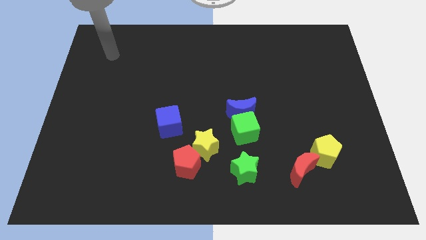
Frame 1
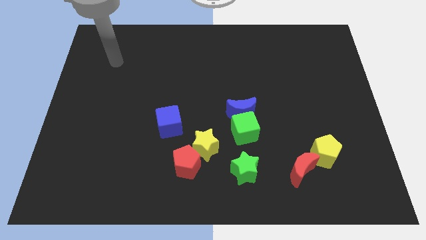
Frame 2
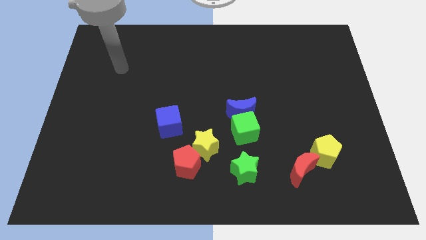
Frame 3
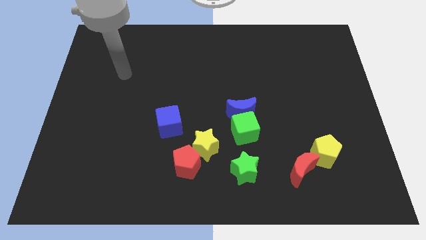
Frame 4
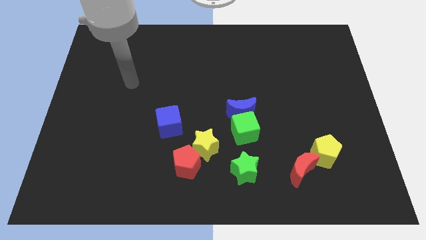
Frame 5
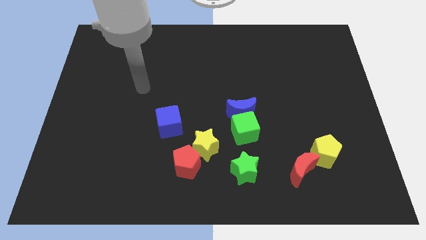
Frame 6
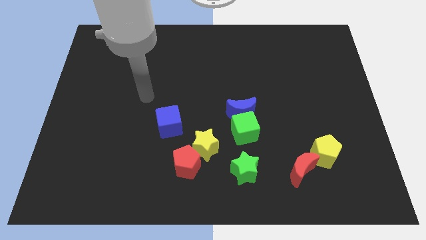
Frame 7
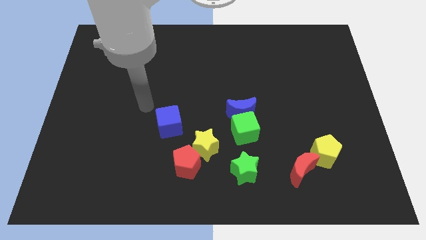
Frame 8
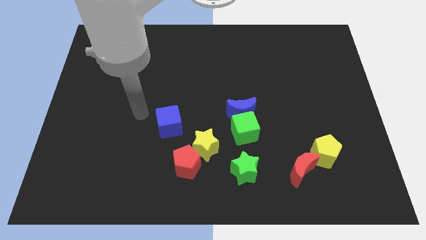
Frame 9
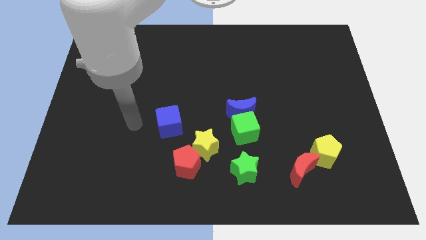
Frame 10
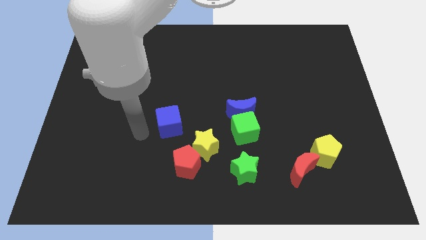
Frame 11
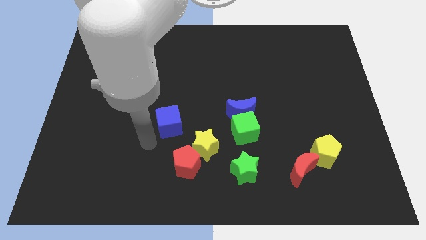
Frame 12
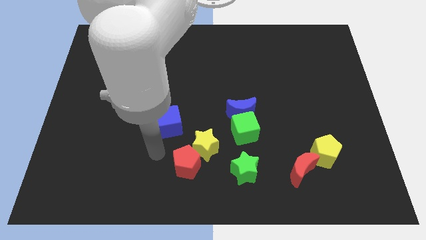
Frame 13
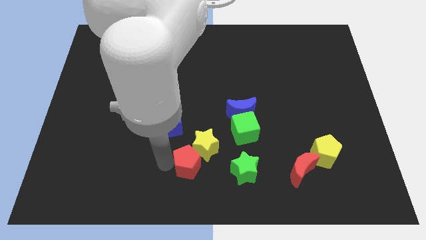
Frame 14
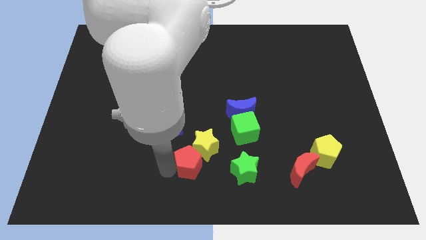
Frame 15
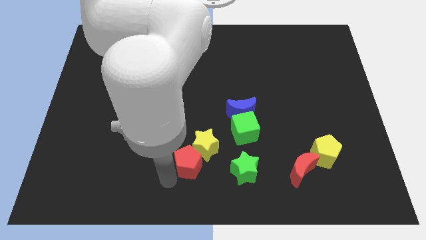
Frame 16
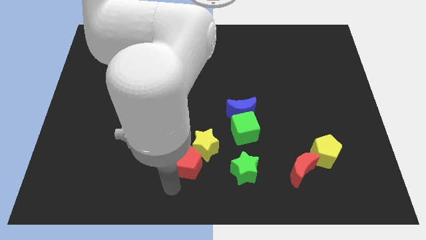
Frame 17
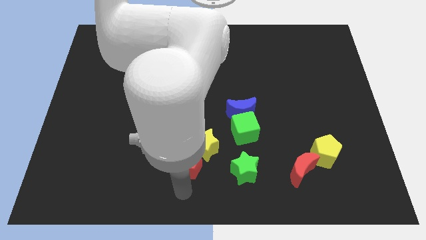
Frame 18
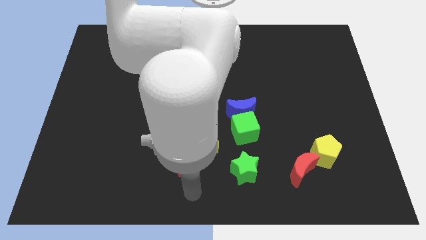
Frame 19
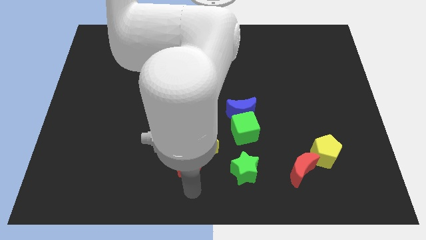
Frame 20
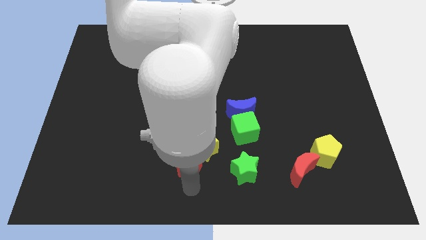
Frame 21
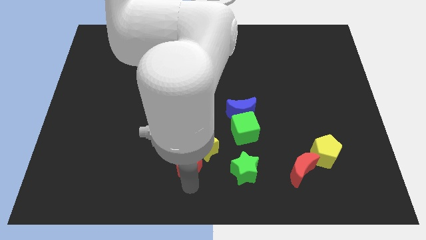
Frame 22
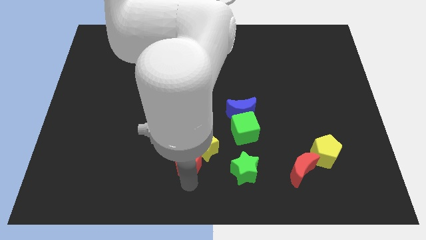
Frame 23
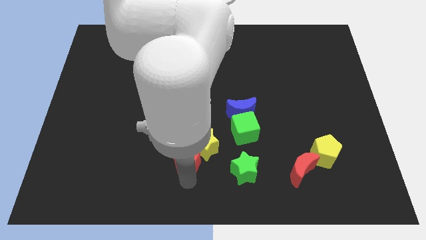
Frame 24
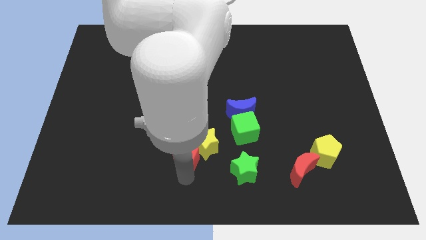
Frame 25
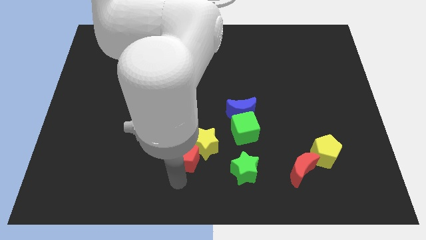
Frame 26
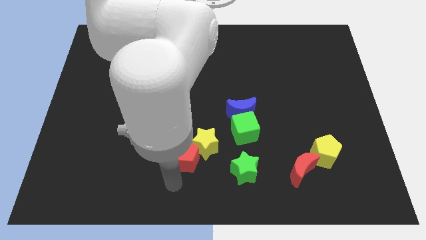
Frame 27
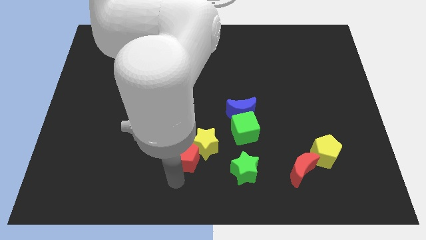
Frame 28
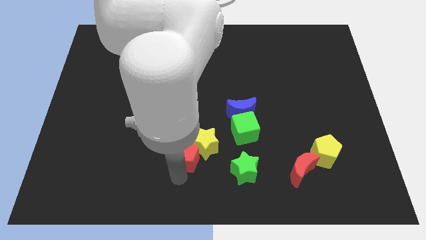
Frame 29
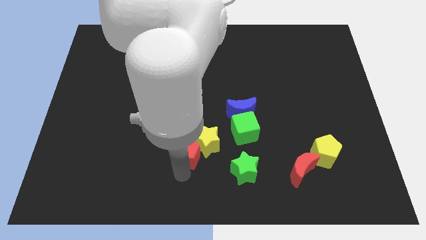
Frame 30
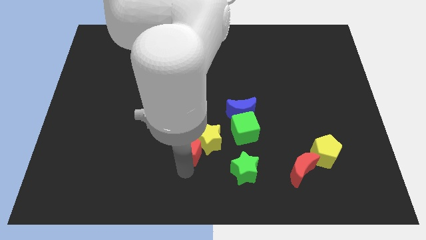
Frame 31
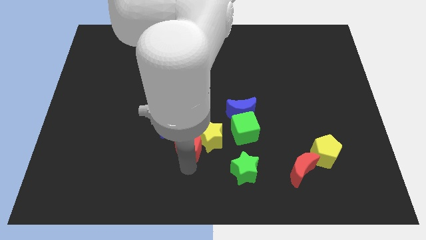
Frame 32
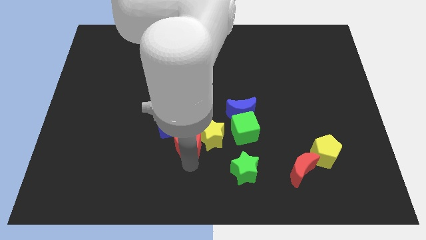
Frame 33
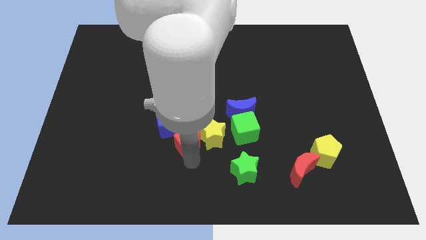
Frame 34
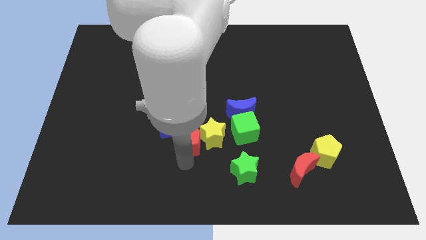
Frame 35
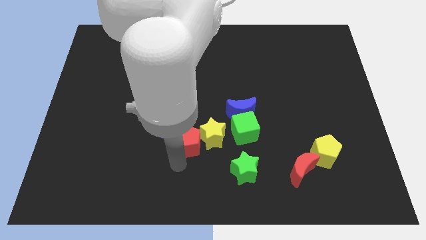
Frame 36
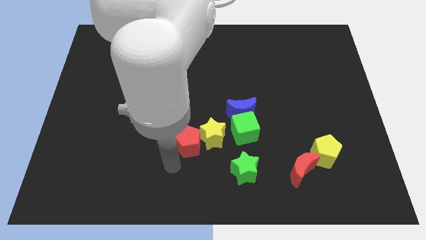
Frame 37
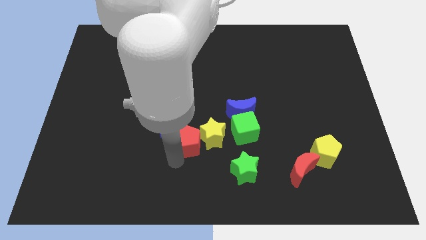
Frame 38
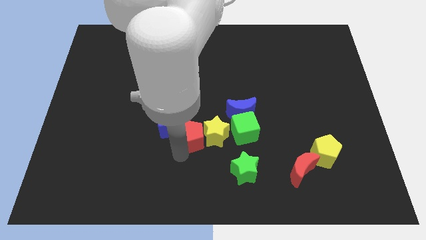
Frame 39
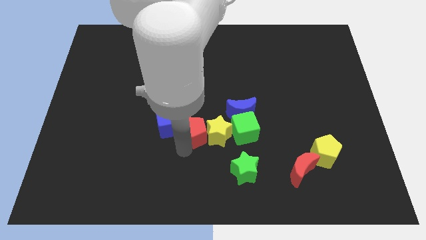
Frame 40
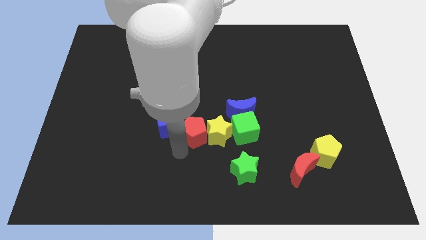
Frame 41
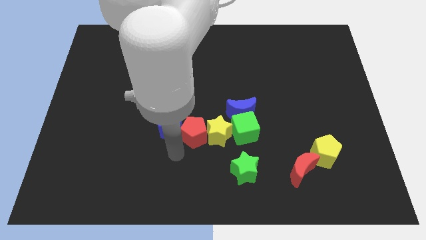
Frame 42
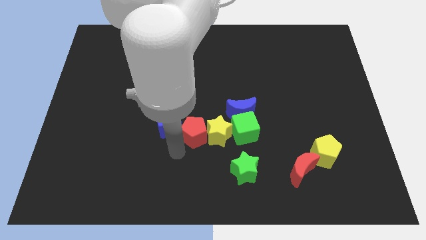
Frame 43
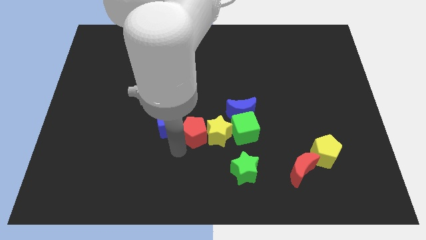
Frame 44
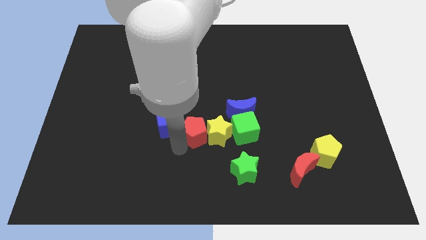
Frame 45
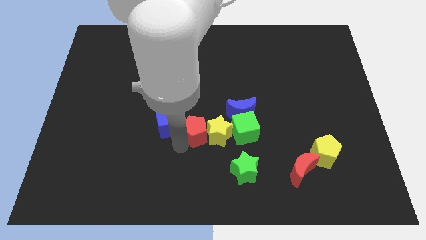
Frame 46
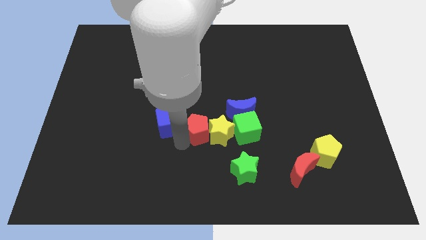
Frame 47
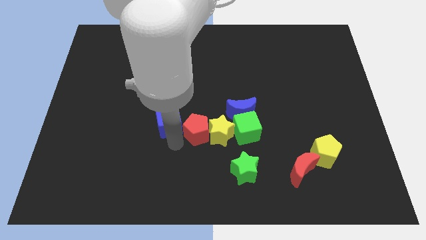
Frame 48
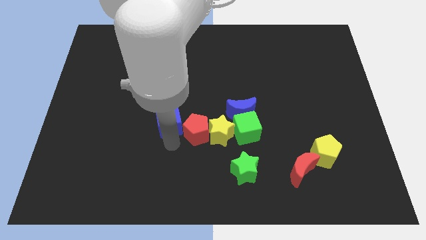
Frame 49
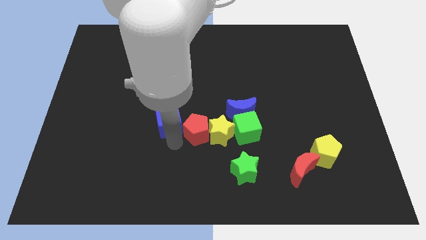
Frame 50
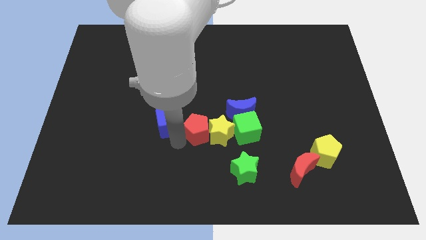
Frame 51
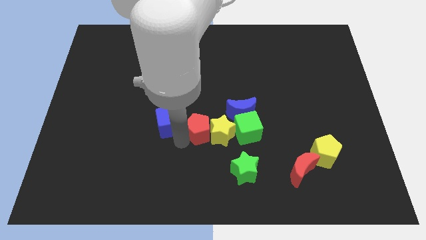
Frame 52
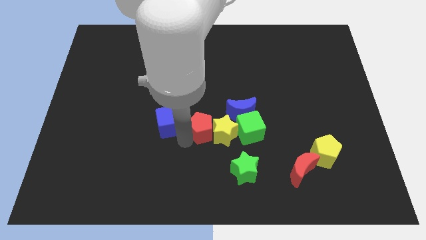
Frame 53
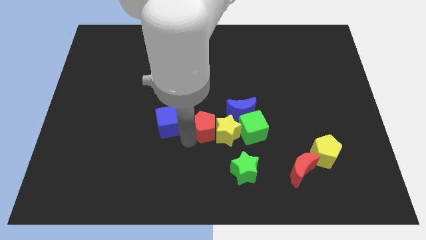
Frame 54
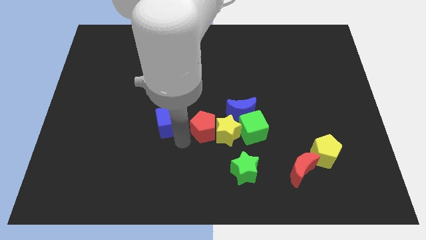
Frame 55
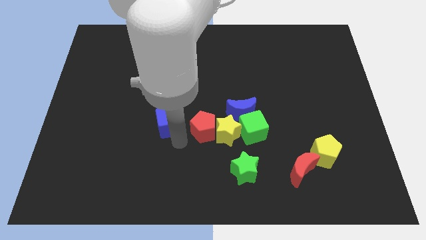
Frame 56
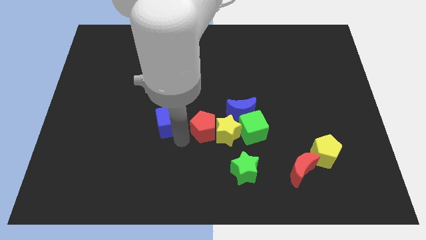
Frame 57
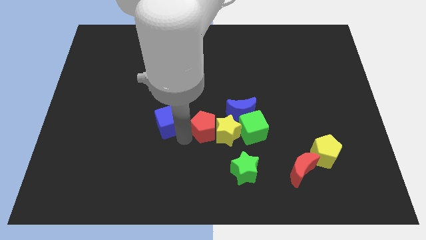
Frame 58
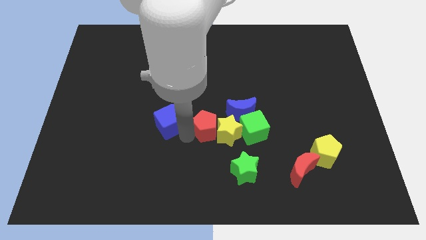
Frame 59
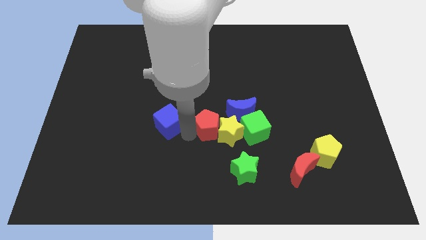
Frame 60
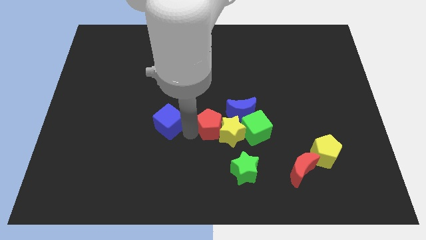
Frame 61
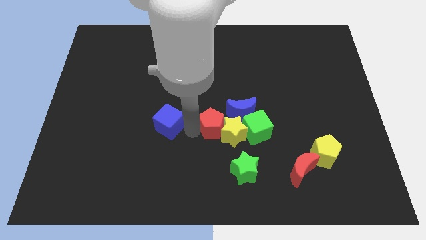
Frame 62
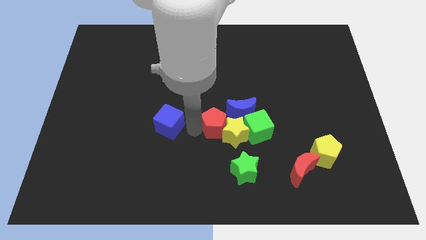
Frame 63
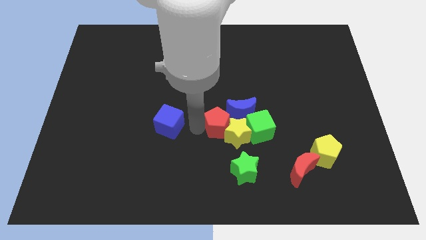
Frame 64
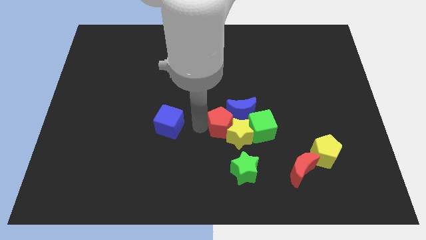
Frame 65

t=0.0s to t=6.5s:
move the red pentagon next to the blue moon
